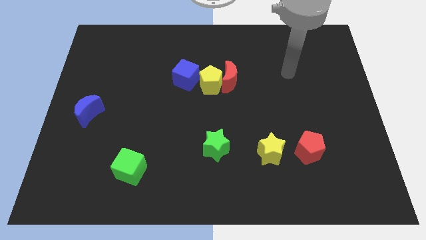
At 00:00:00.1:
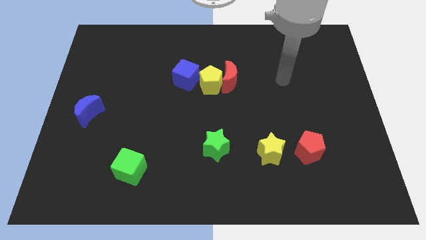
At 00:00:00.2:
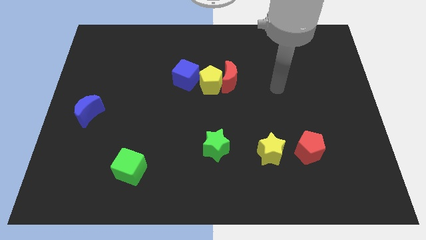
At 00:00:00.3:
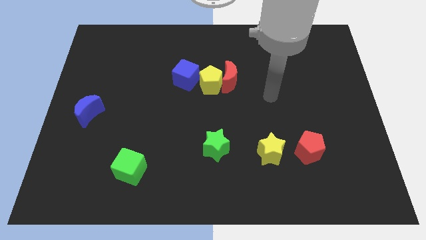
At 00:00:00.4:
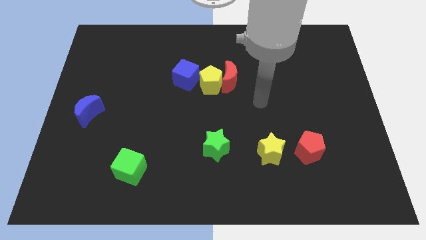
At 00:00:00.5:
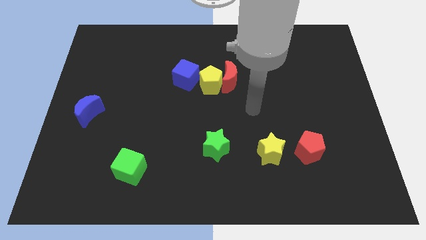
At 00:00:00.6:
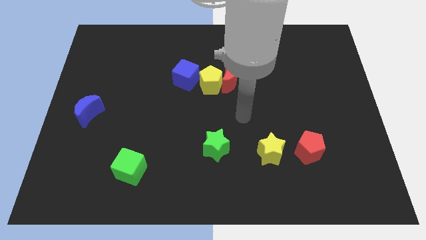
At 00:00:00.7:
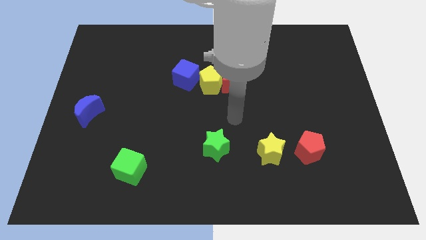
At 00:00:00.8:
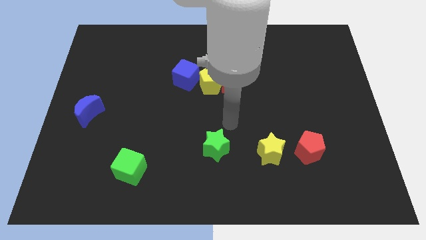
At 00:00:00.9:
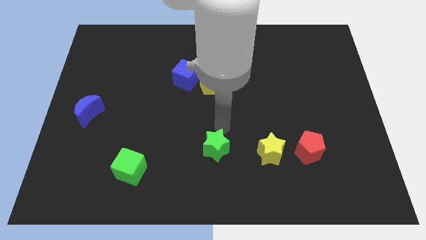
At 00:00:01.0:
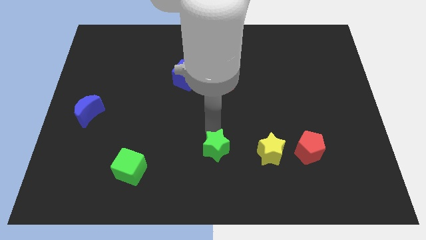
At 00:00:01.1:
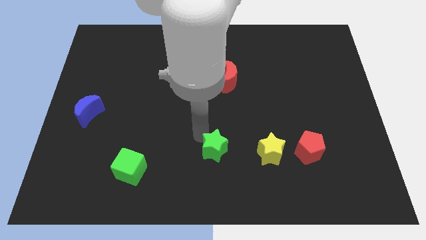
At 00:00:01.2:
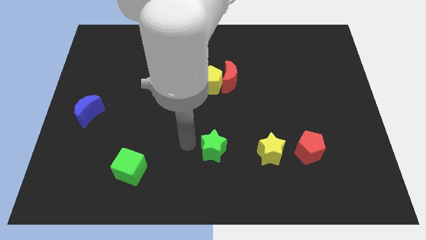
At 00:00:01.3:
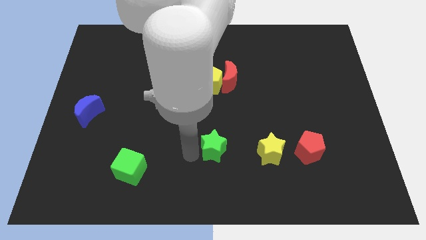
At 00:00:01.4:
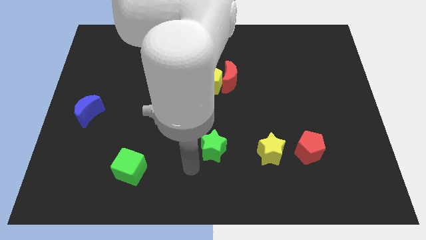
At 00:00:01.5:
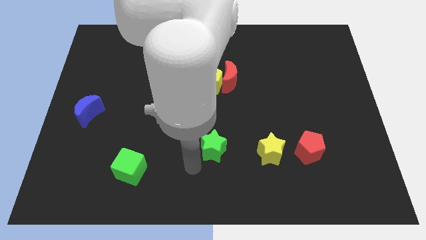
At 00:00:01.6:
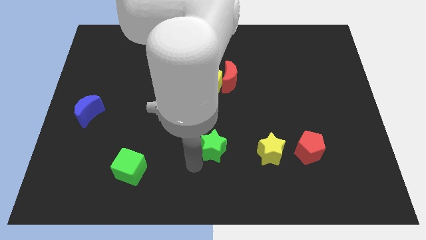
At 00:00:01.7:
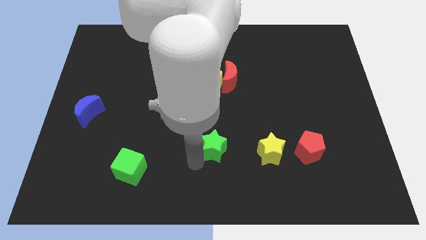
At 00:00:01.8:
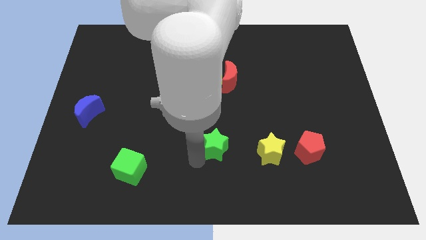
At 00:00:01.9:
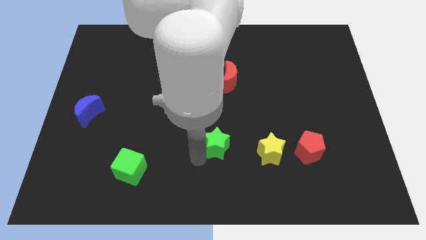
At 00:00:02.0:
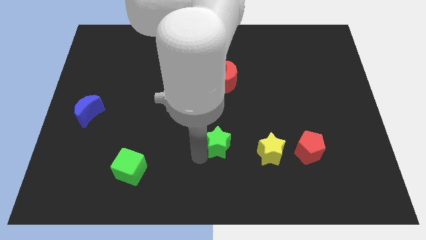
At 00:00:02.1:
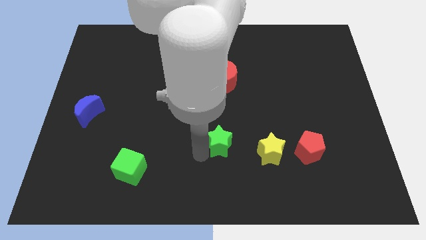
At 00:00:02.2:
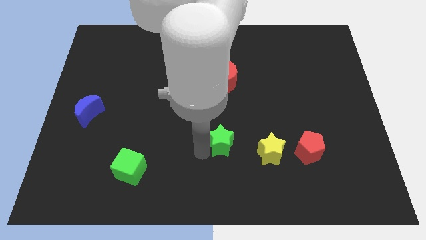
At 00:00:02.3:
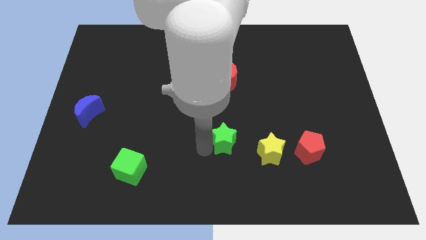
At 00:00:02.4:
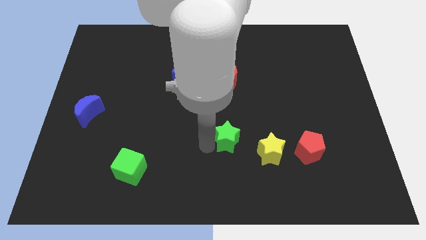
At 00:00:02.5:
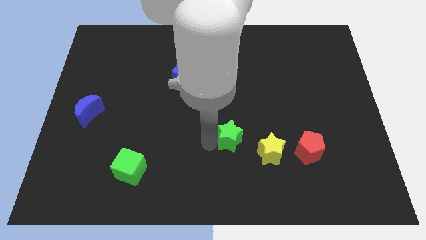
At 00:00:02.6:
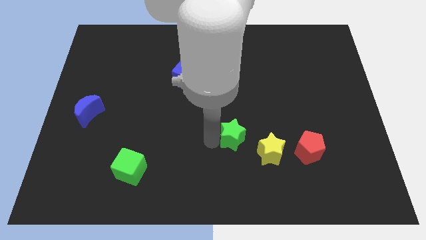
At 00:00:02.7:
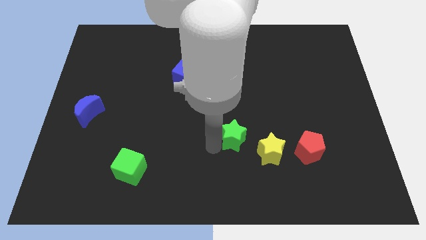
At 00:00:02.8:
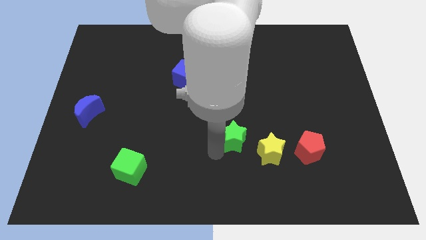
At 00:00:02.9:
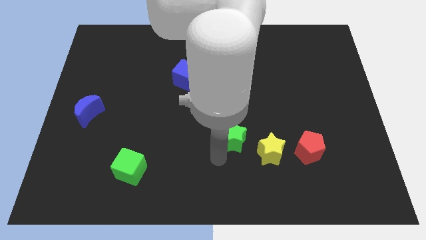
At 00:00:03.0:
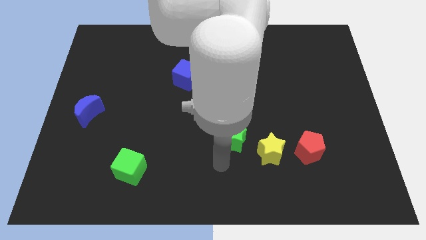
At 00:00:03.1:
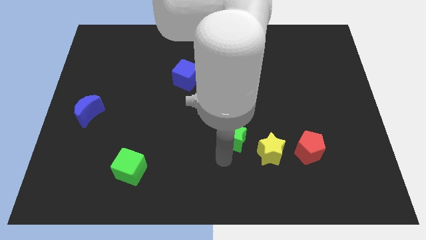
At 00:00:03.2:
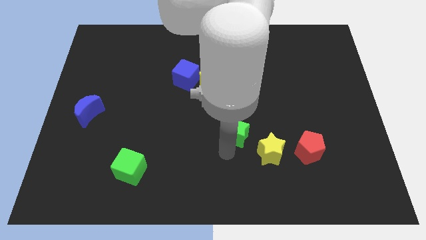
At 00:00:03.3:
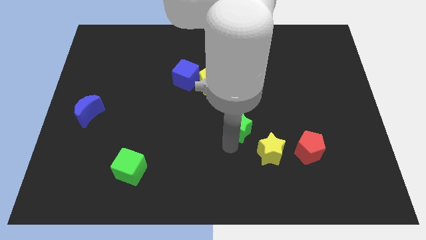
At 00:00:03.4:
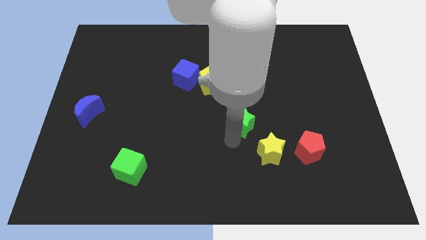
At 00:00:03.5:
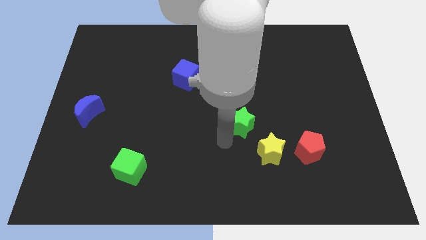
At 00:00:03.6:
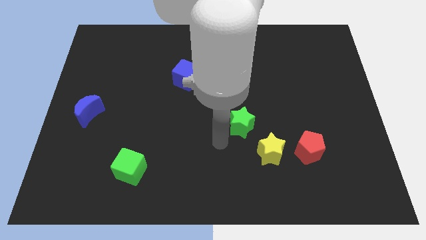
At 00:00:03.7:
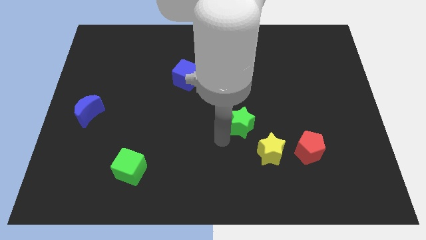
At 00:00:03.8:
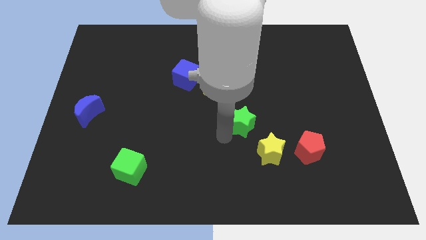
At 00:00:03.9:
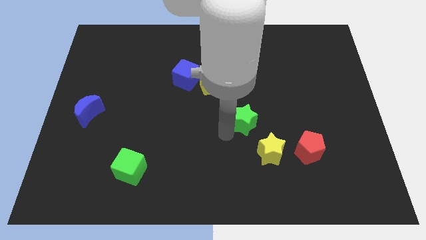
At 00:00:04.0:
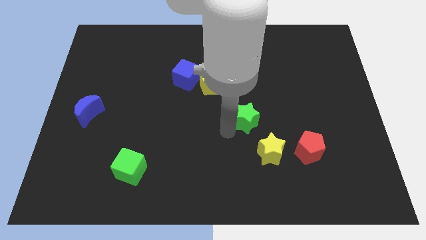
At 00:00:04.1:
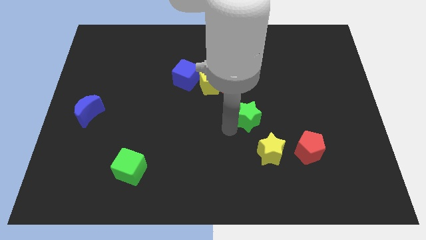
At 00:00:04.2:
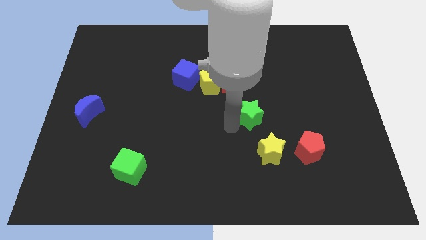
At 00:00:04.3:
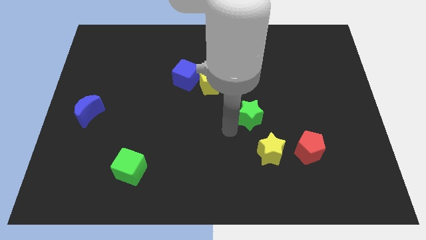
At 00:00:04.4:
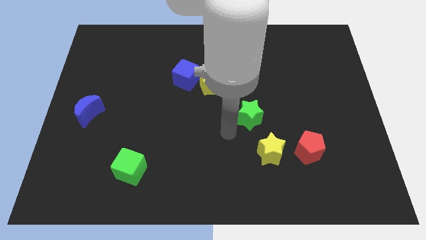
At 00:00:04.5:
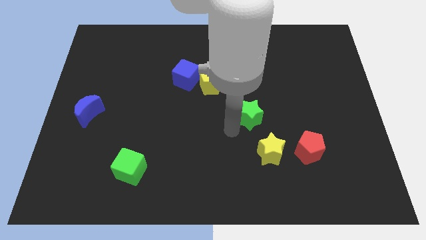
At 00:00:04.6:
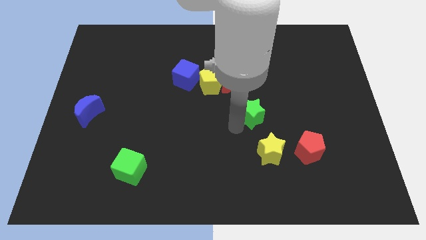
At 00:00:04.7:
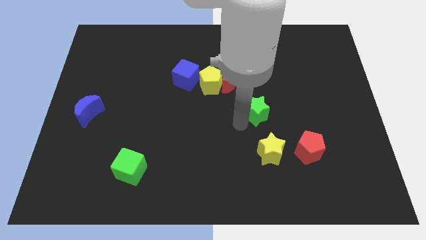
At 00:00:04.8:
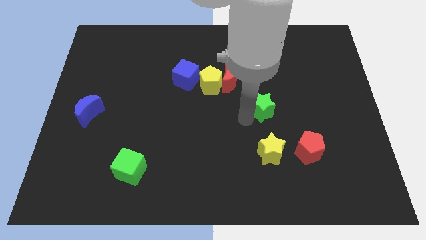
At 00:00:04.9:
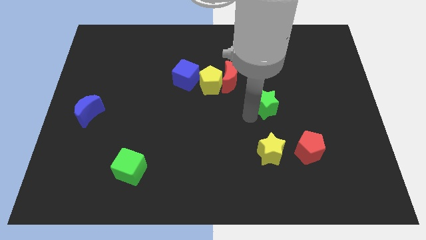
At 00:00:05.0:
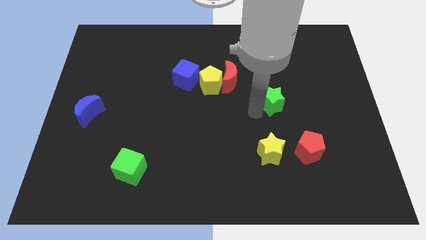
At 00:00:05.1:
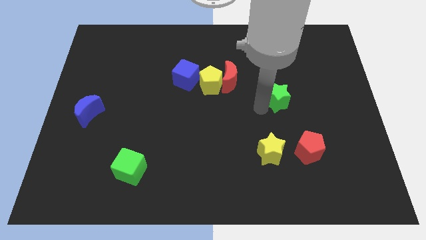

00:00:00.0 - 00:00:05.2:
slide the green star diagonally up and to the right

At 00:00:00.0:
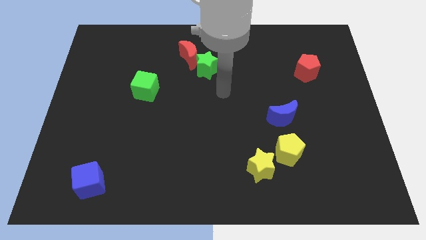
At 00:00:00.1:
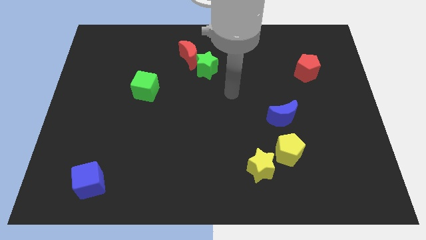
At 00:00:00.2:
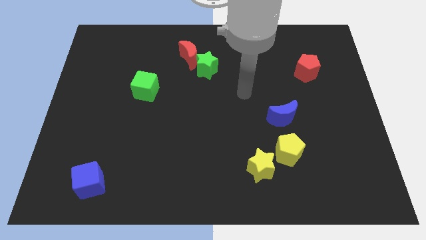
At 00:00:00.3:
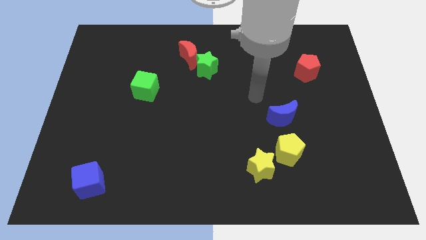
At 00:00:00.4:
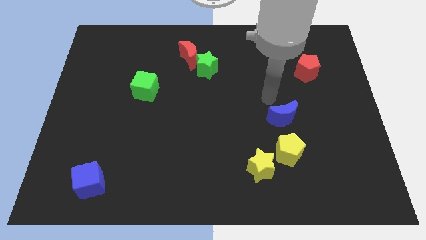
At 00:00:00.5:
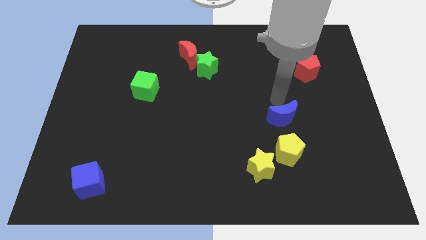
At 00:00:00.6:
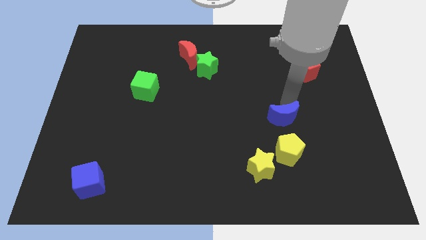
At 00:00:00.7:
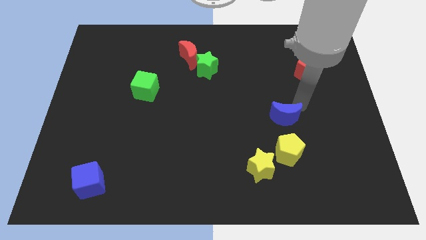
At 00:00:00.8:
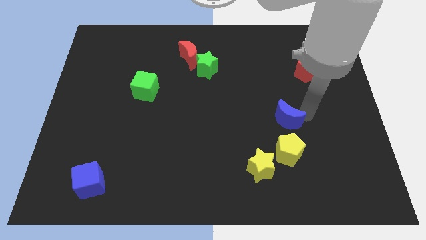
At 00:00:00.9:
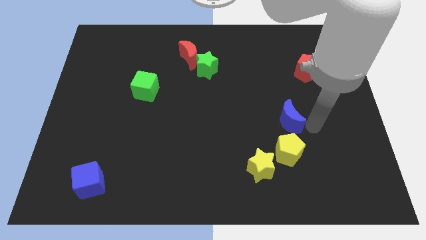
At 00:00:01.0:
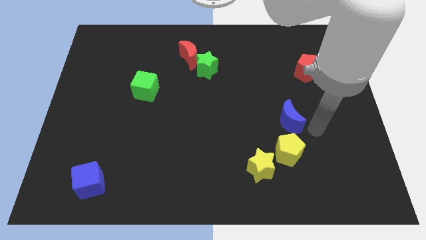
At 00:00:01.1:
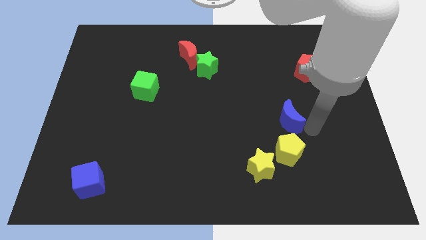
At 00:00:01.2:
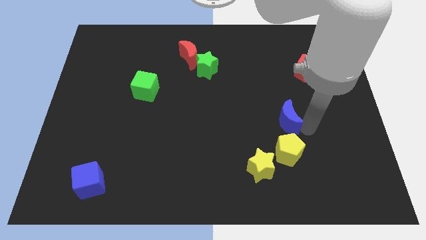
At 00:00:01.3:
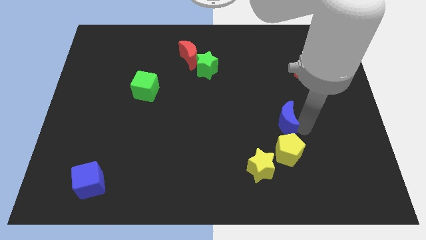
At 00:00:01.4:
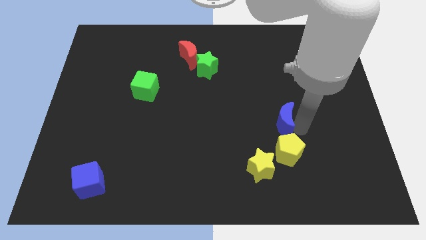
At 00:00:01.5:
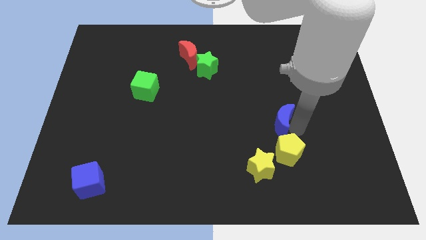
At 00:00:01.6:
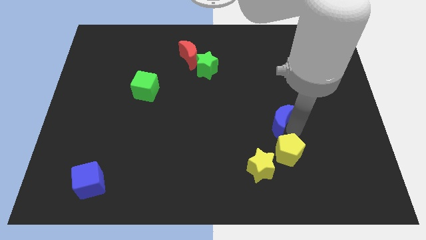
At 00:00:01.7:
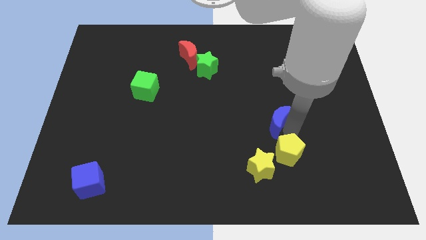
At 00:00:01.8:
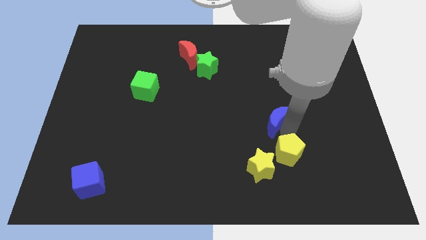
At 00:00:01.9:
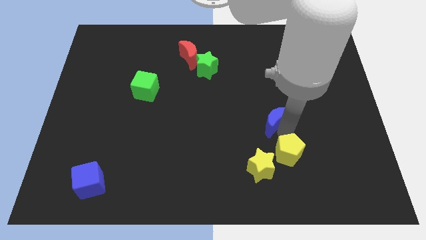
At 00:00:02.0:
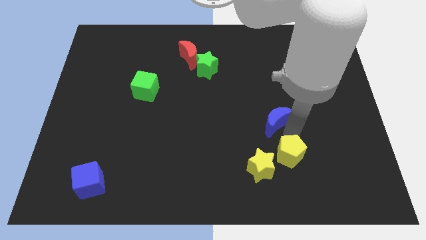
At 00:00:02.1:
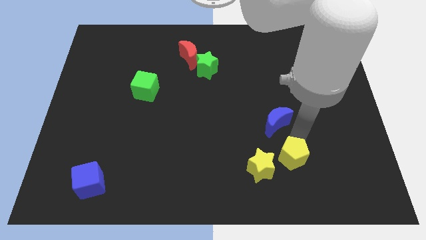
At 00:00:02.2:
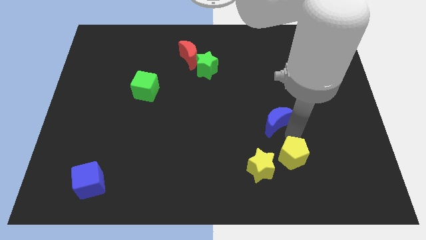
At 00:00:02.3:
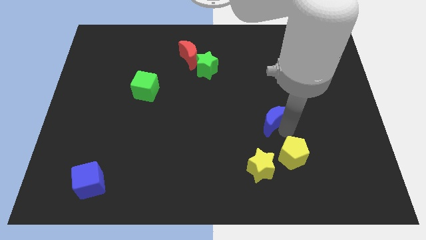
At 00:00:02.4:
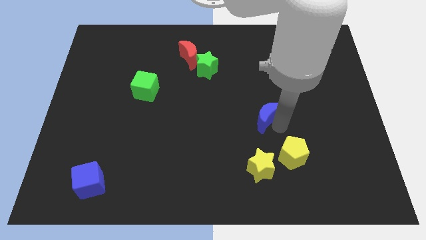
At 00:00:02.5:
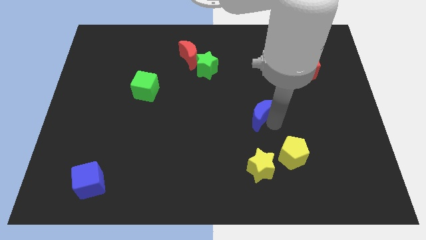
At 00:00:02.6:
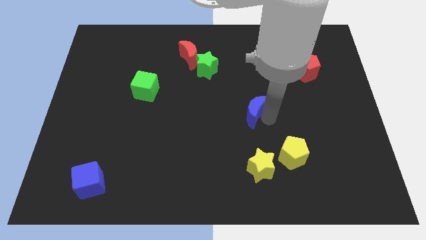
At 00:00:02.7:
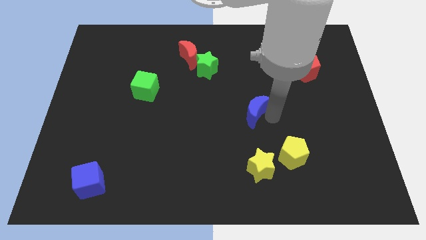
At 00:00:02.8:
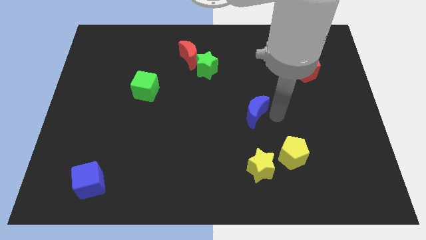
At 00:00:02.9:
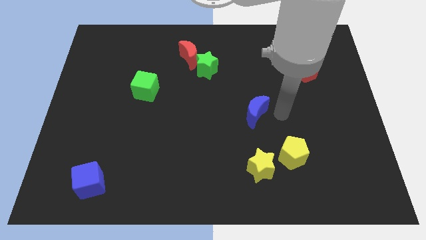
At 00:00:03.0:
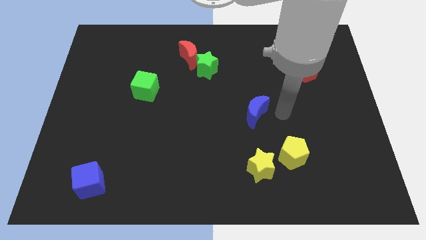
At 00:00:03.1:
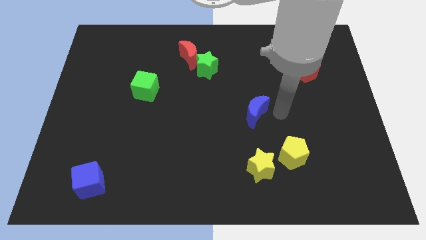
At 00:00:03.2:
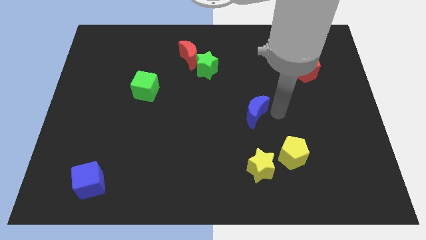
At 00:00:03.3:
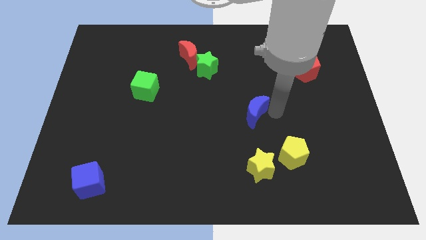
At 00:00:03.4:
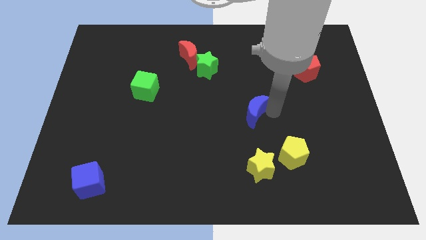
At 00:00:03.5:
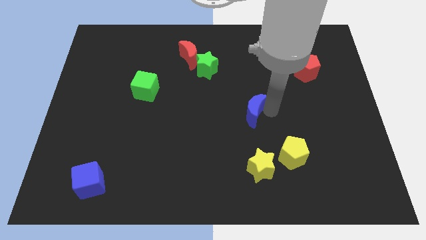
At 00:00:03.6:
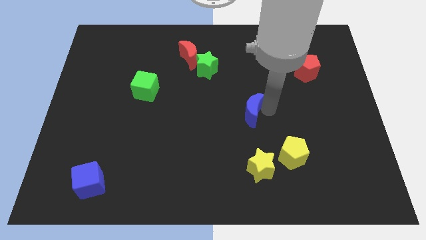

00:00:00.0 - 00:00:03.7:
push the blue moon a bit left
